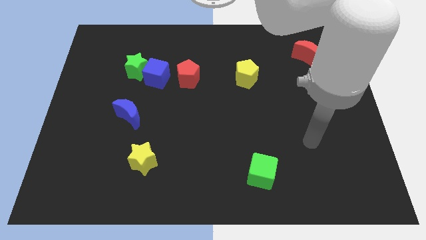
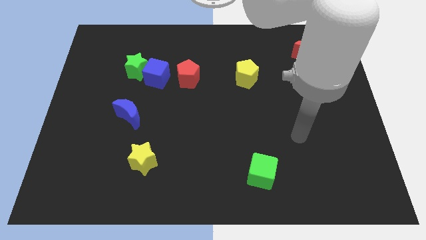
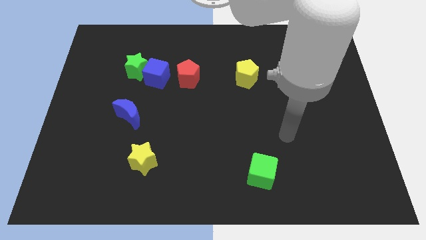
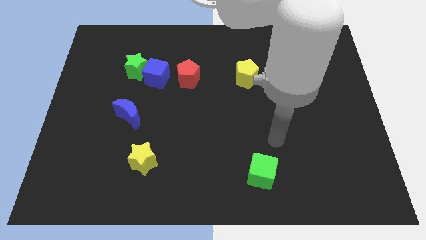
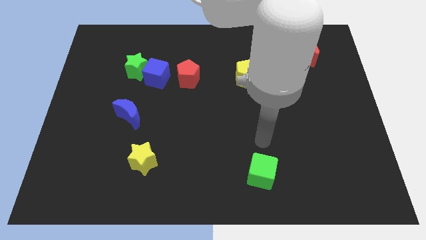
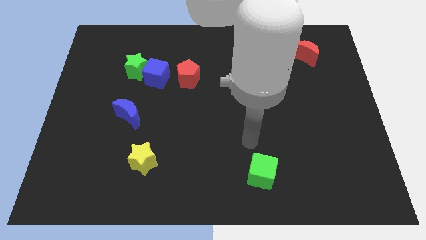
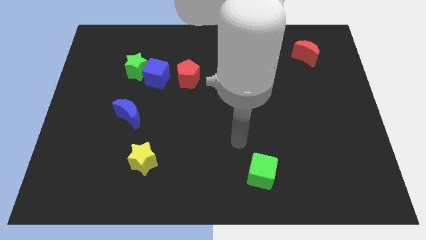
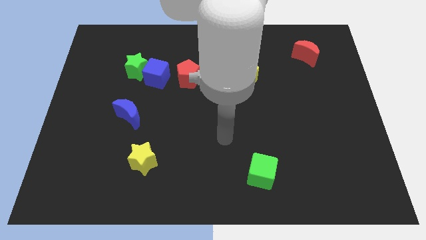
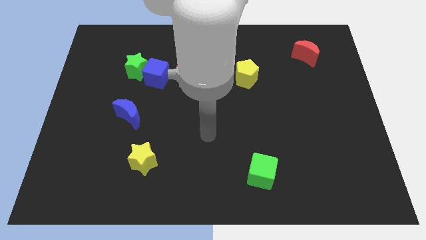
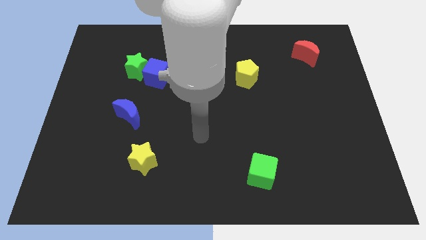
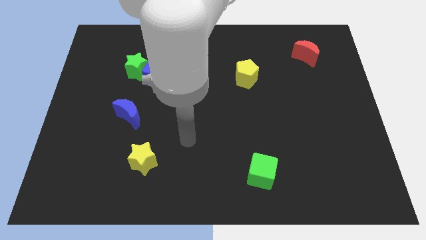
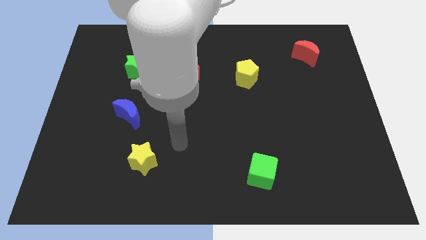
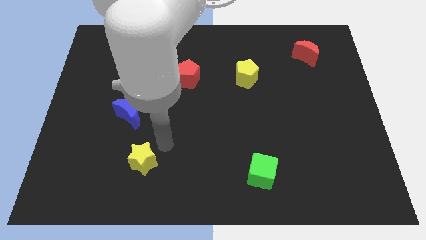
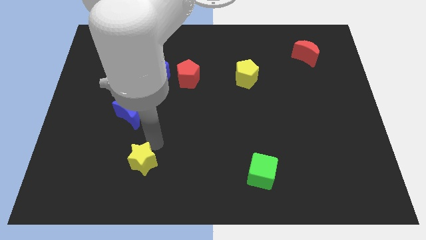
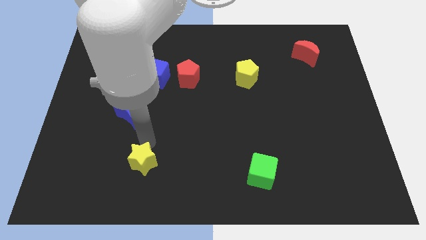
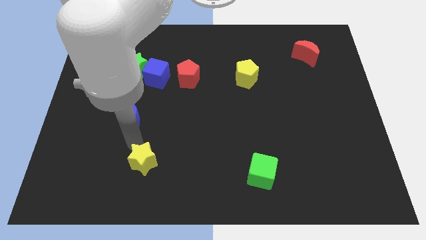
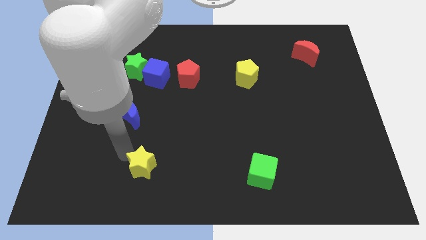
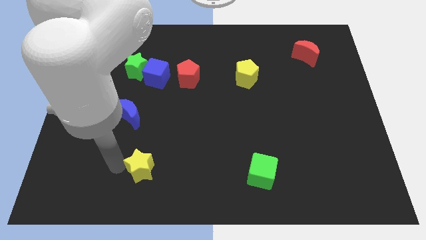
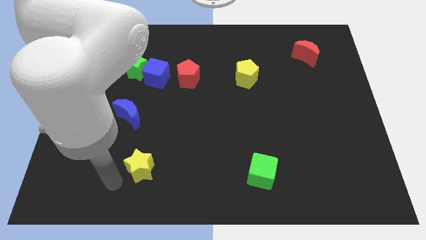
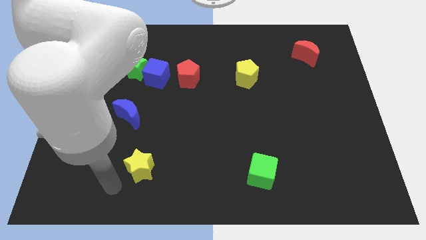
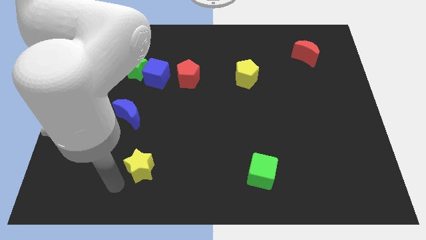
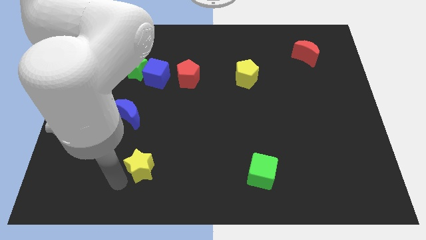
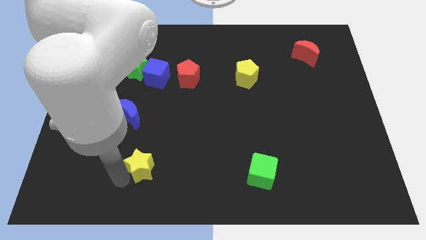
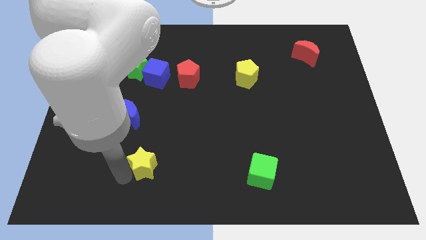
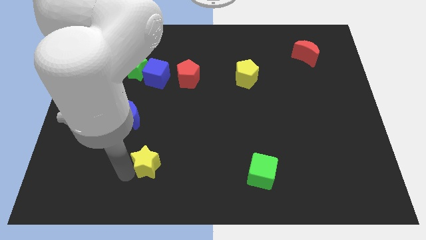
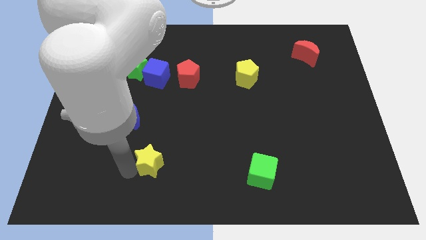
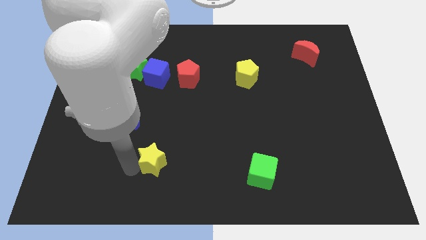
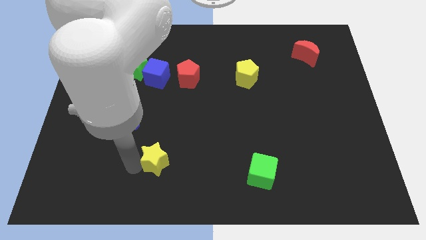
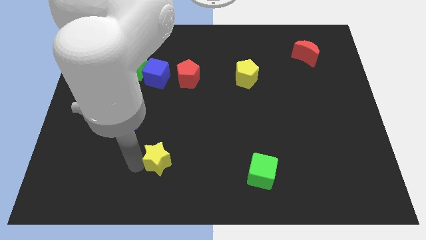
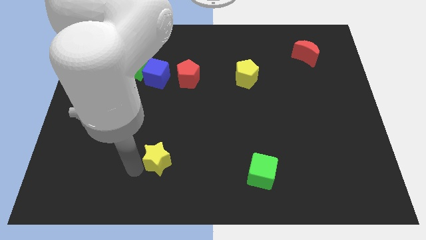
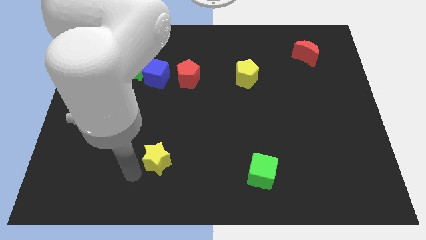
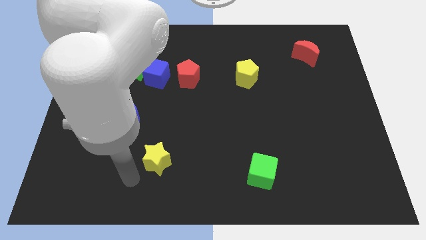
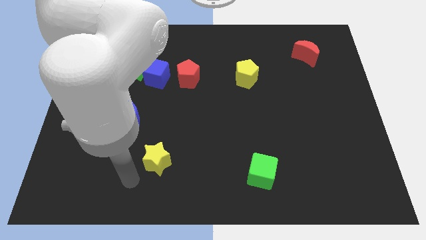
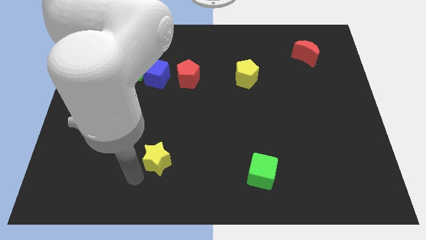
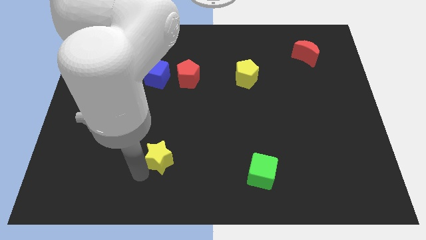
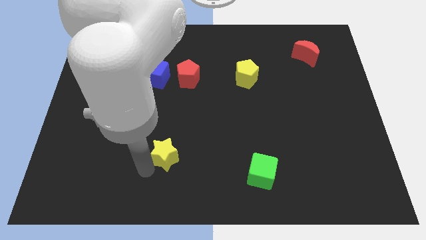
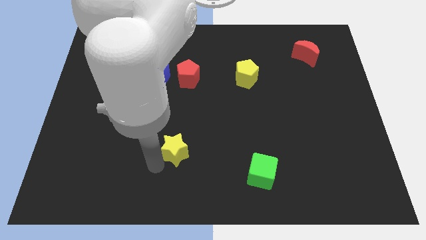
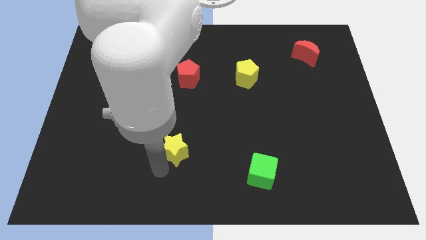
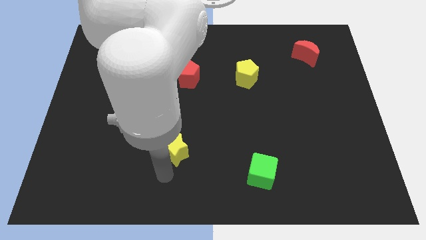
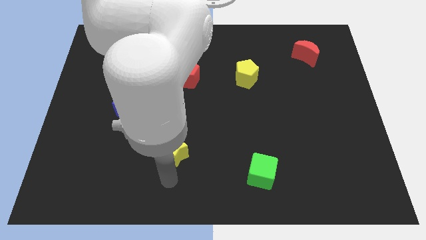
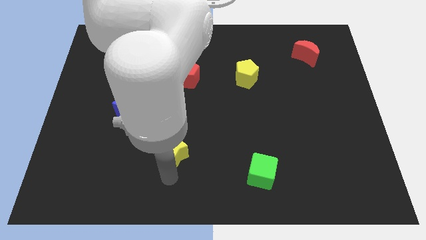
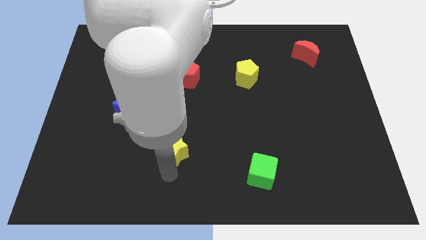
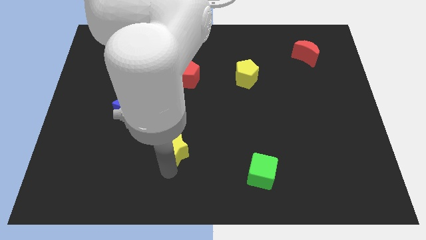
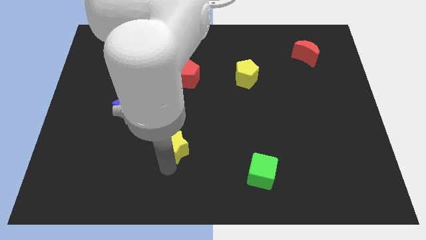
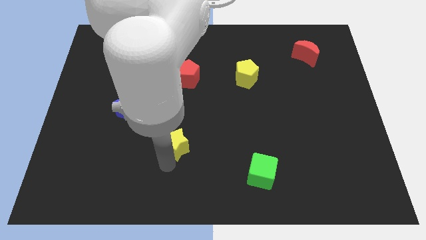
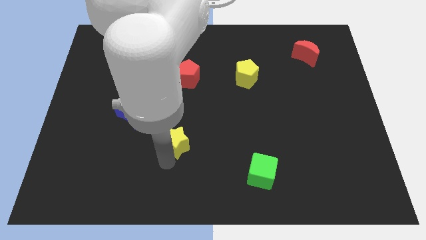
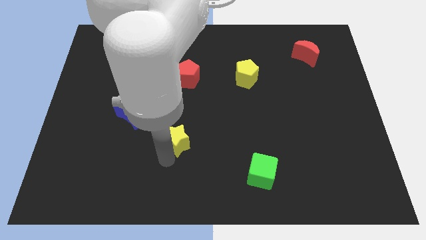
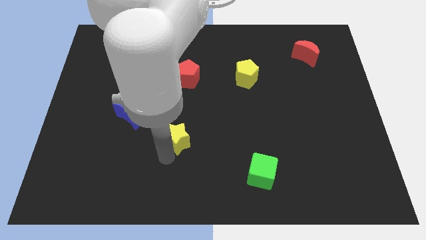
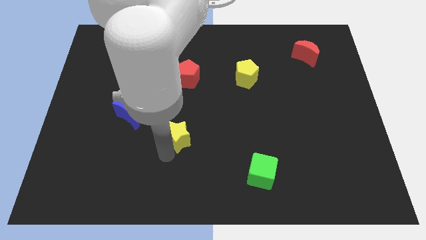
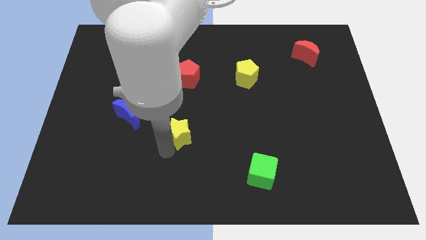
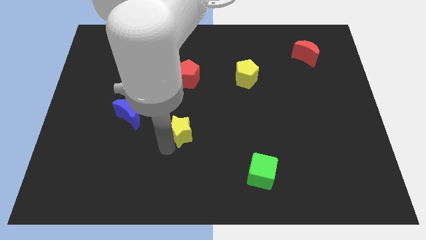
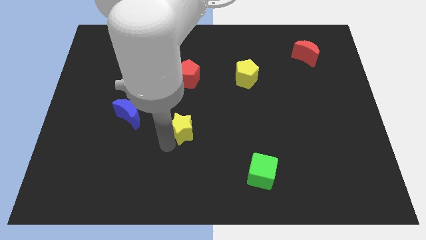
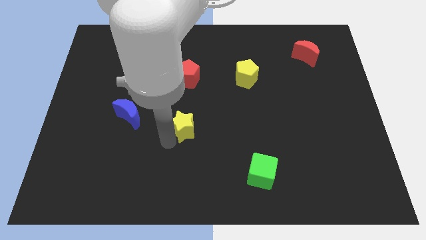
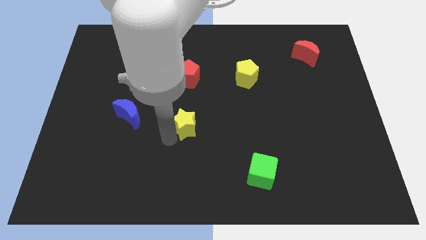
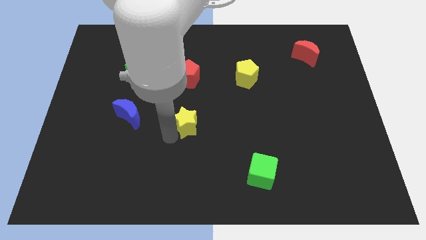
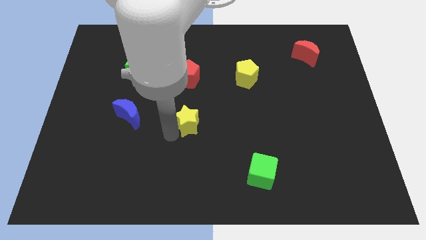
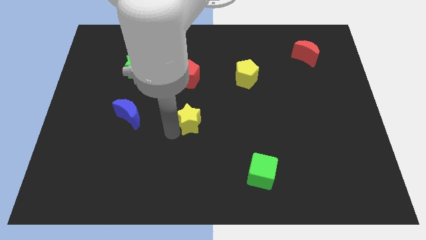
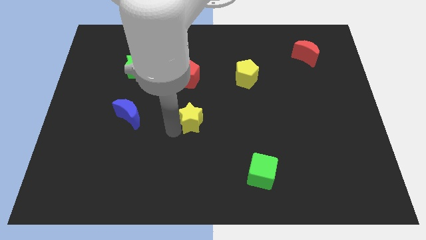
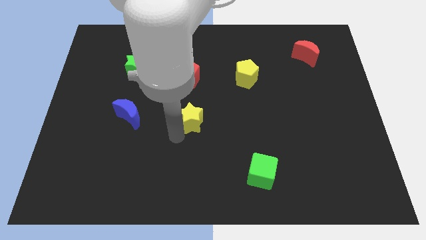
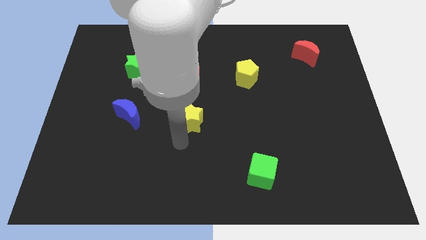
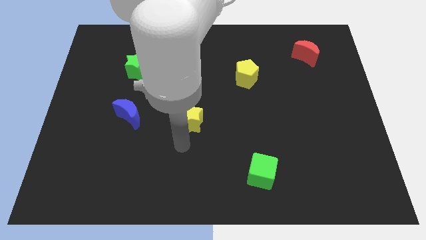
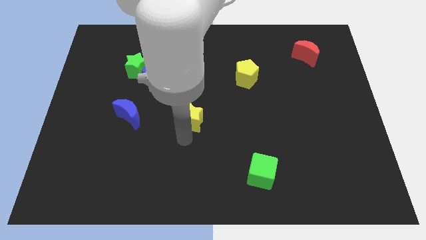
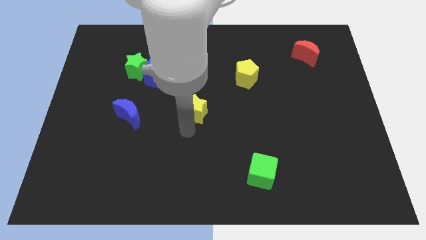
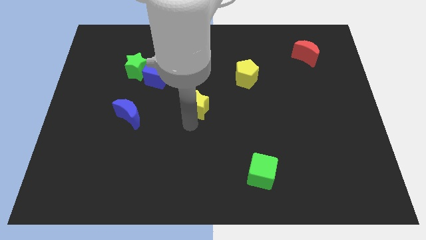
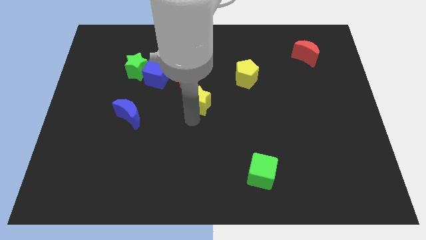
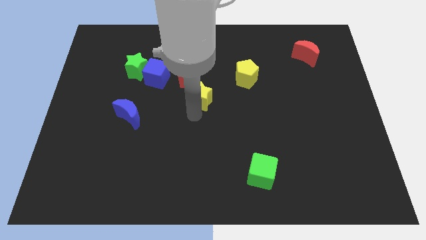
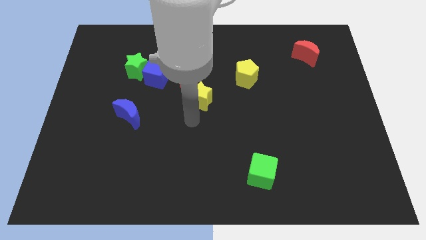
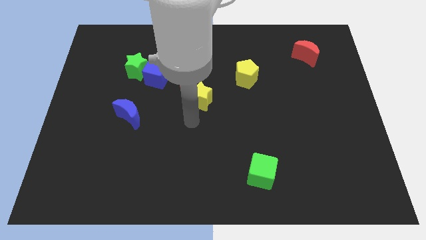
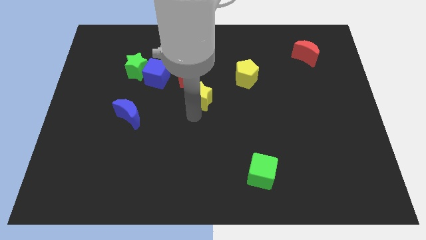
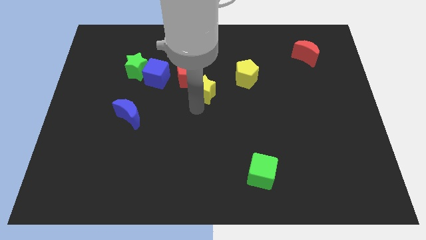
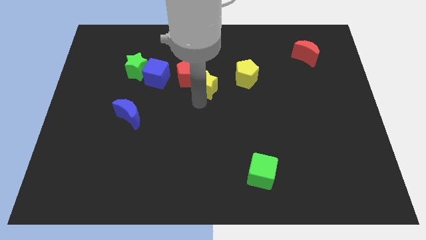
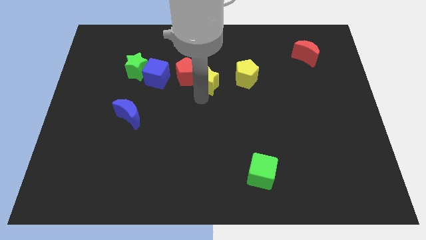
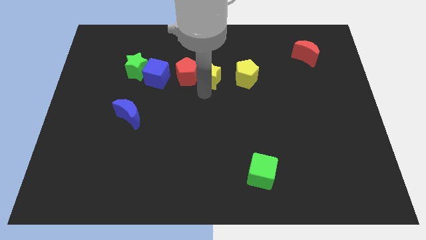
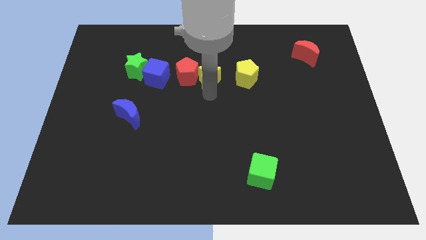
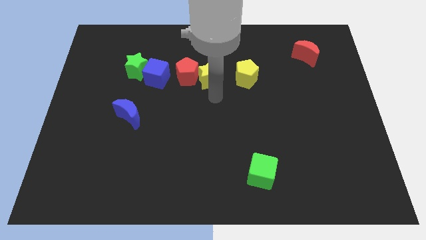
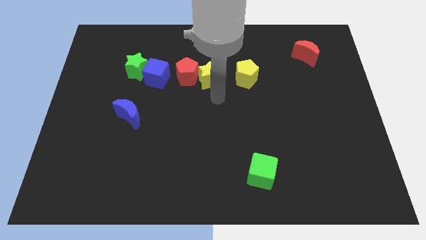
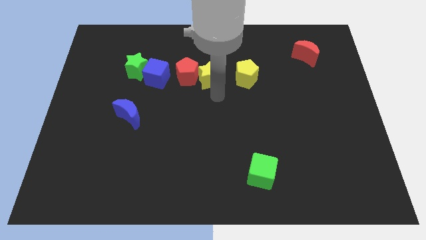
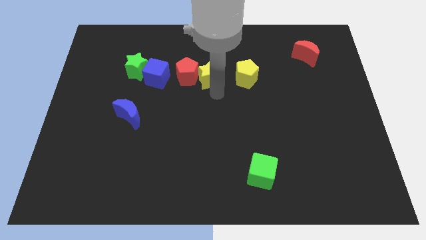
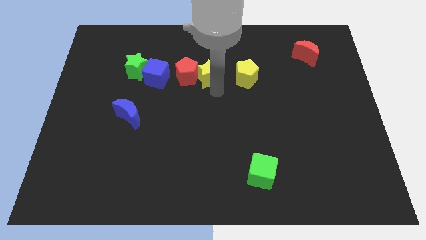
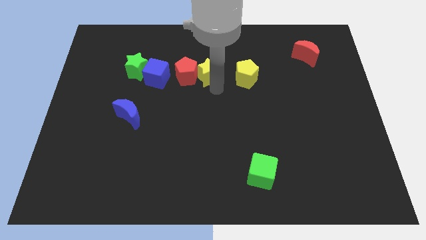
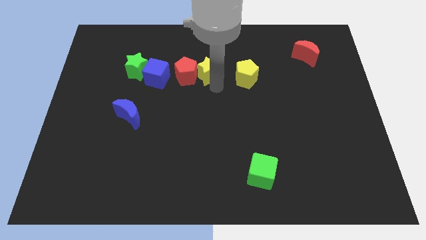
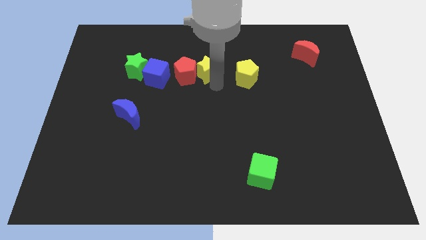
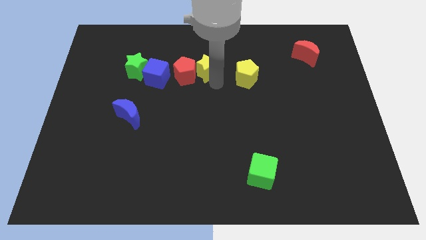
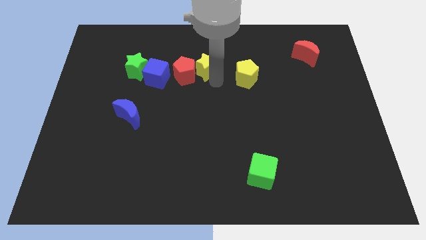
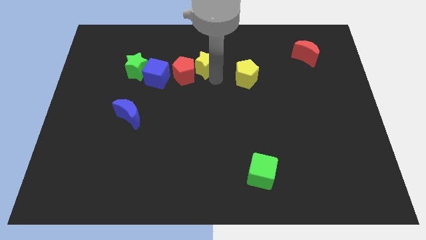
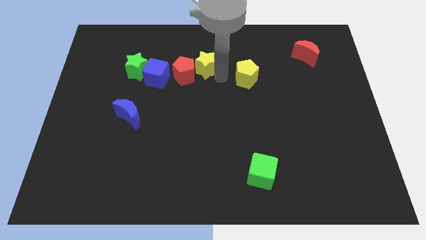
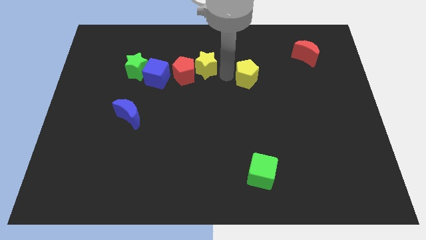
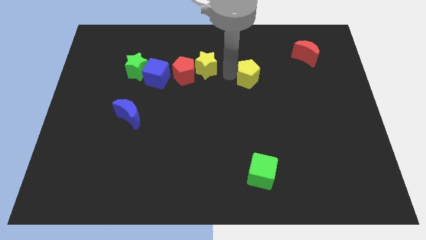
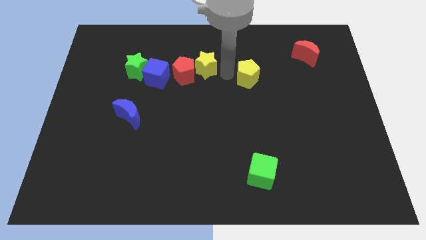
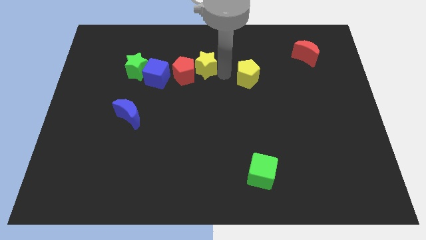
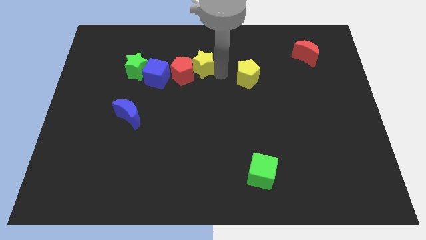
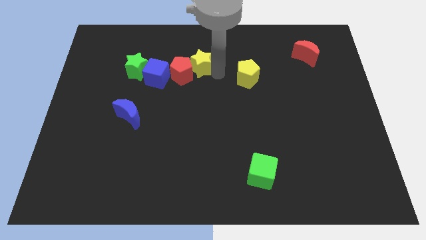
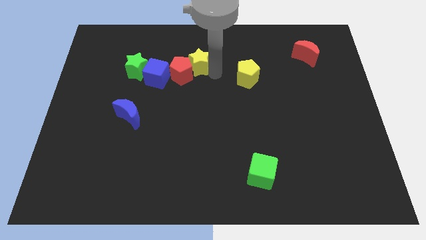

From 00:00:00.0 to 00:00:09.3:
move the yellow star diagonally up and to the right of the blue cube
